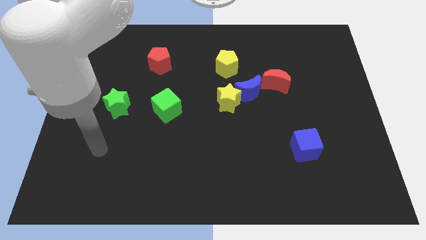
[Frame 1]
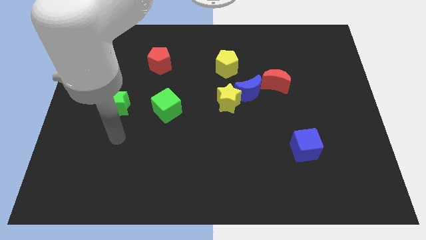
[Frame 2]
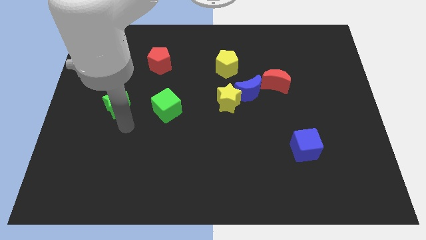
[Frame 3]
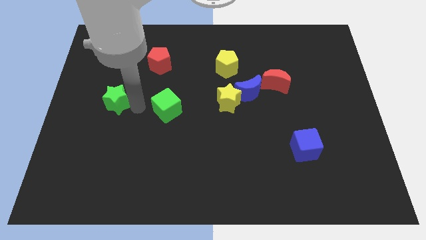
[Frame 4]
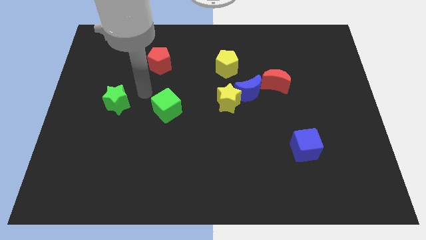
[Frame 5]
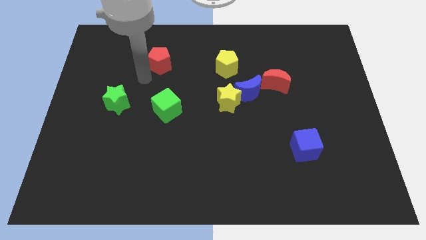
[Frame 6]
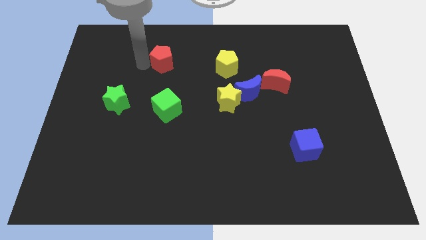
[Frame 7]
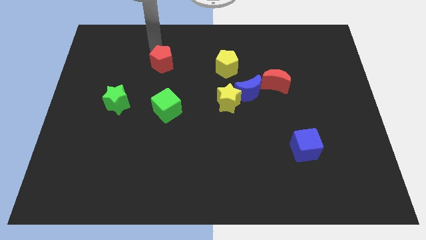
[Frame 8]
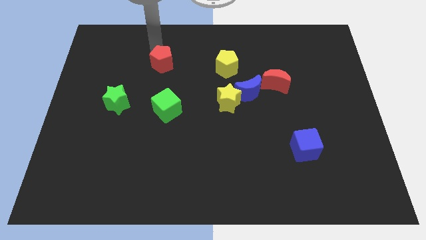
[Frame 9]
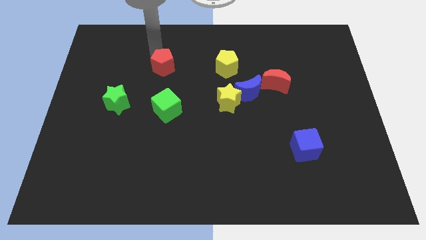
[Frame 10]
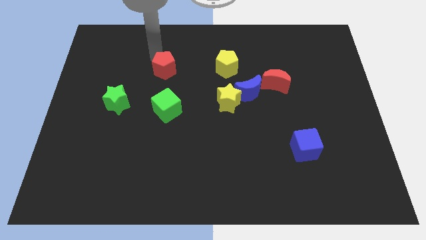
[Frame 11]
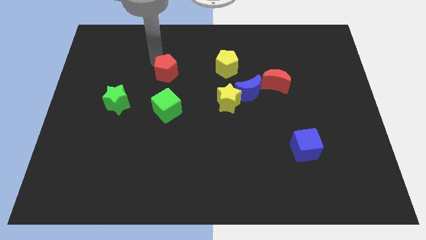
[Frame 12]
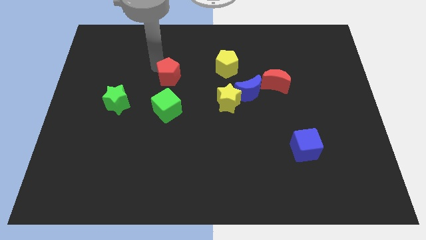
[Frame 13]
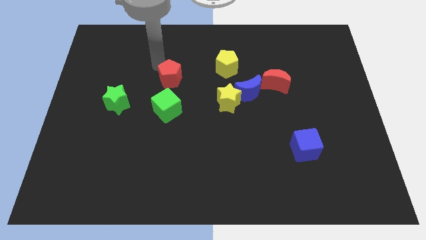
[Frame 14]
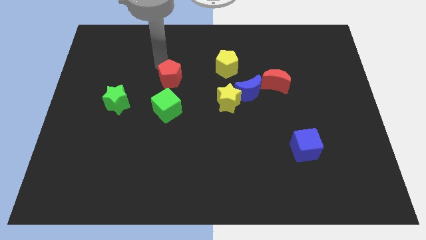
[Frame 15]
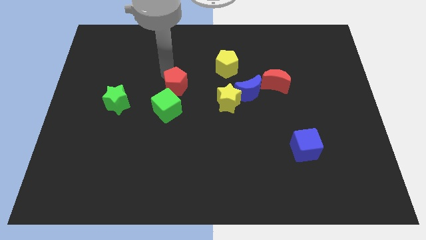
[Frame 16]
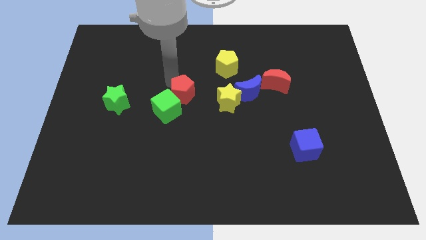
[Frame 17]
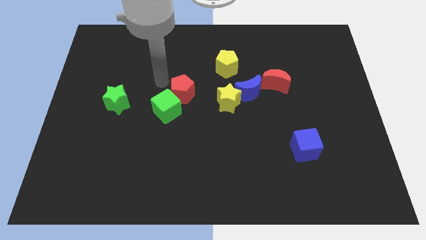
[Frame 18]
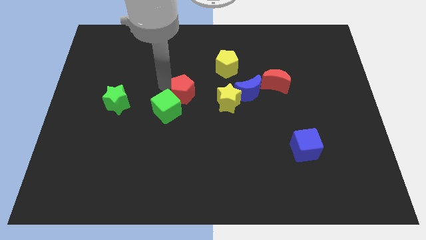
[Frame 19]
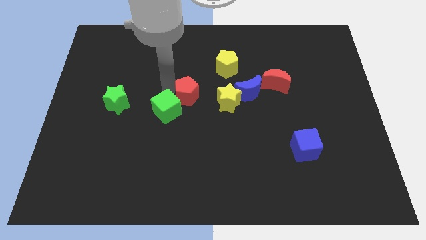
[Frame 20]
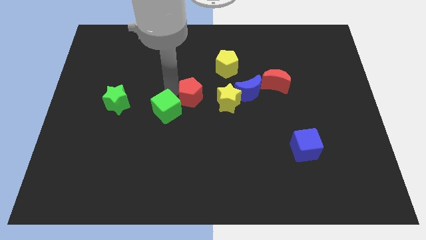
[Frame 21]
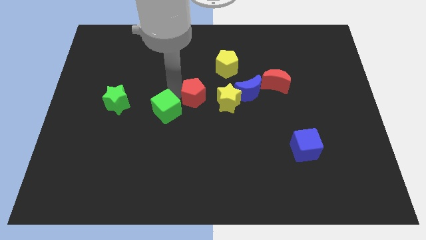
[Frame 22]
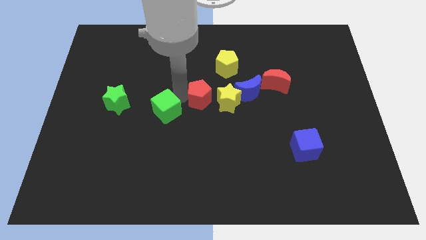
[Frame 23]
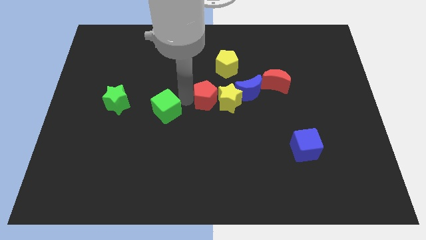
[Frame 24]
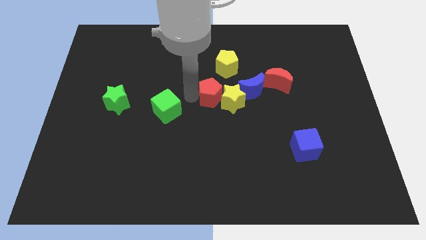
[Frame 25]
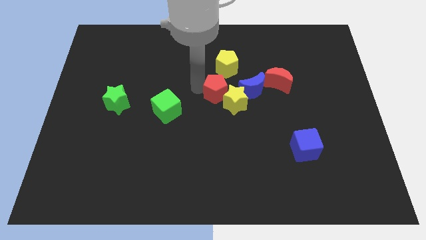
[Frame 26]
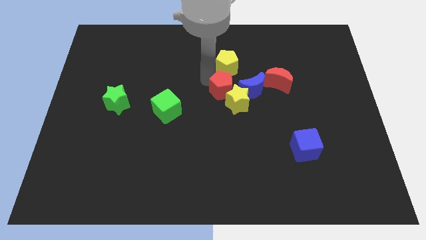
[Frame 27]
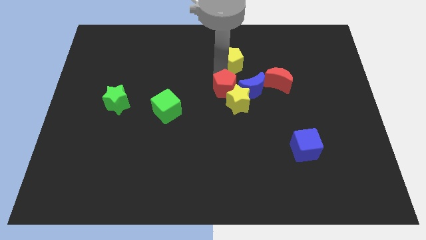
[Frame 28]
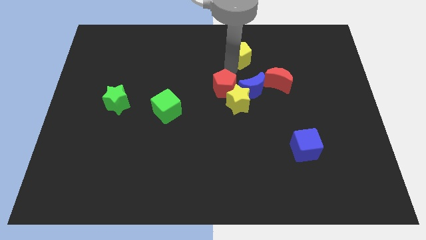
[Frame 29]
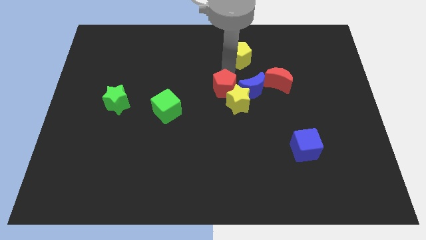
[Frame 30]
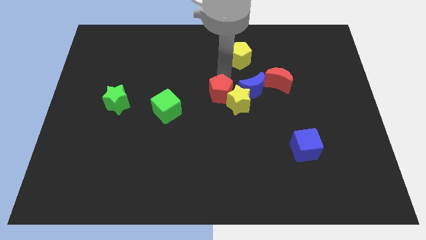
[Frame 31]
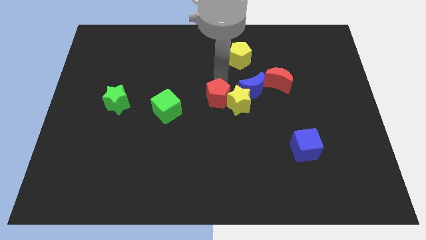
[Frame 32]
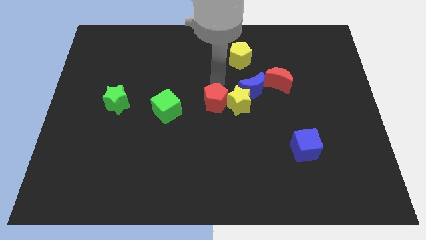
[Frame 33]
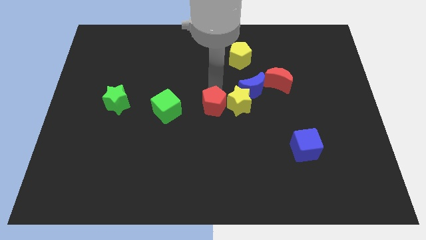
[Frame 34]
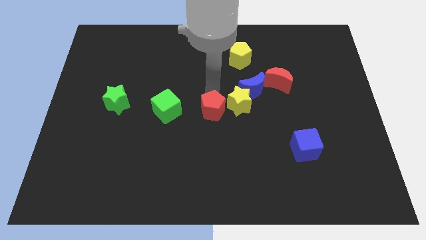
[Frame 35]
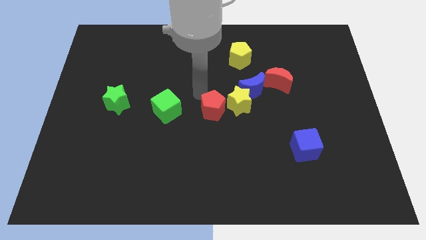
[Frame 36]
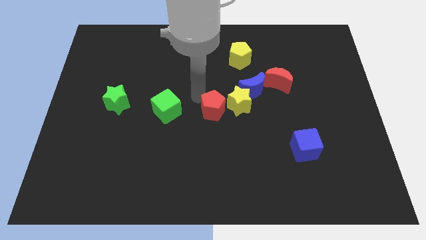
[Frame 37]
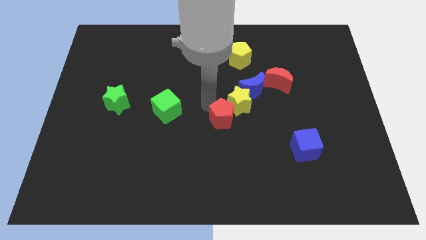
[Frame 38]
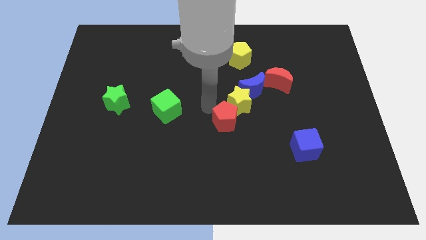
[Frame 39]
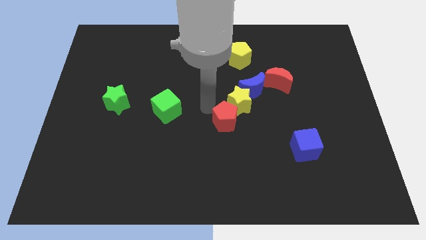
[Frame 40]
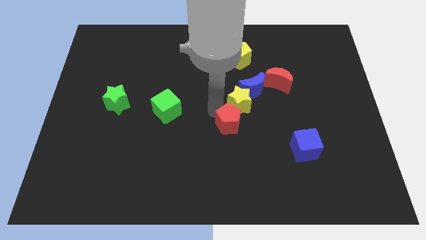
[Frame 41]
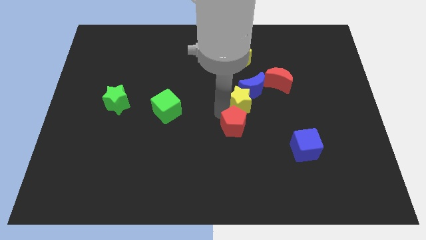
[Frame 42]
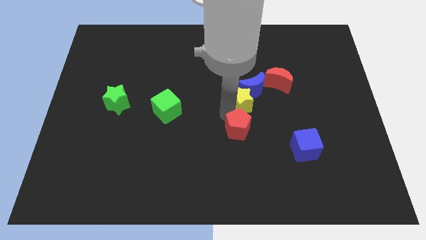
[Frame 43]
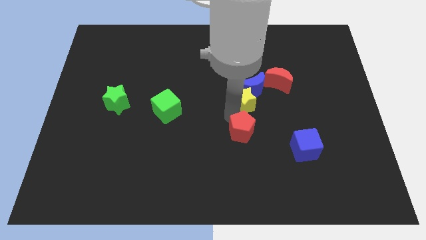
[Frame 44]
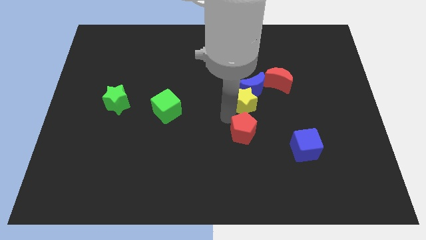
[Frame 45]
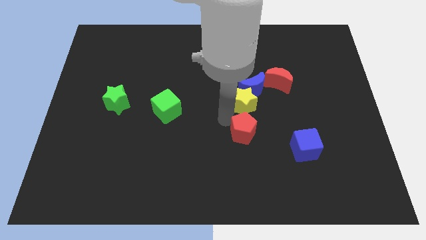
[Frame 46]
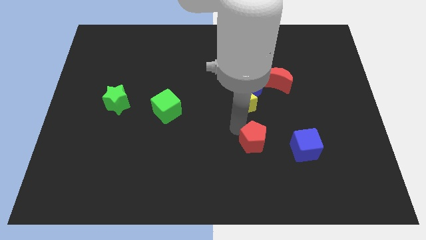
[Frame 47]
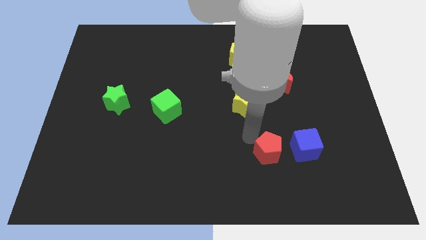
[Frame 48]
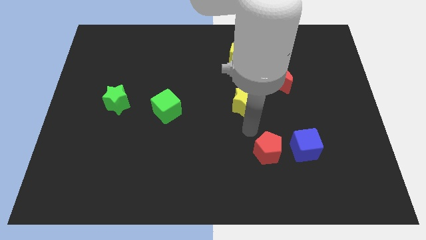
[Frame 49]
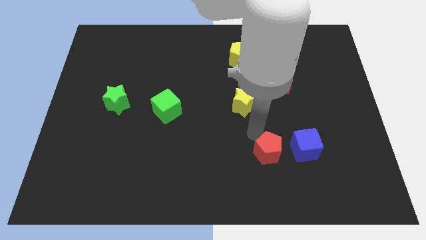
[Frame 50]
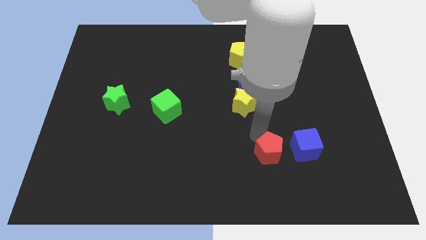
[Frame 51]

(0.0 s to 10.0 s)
put the red pentagon diagonally down and to the left of the blue cube

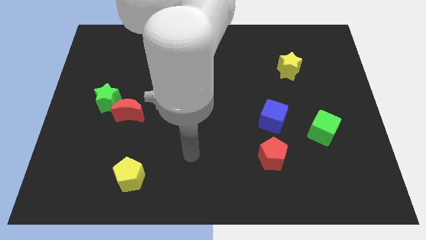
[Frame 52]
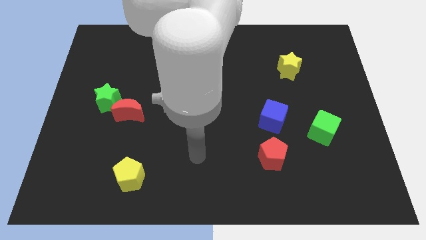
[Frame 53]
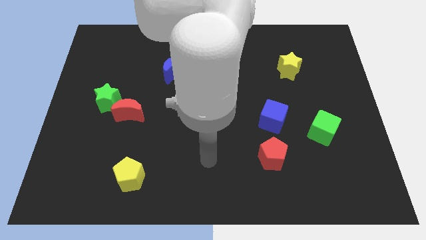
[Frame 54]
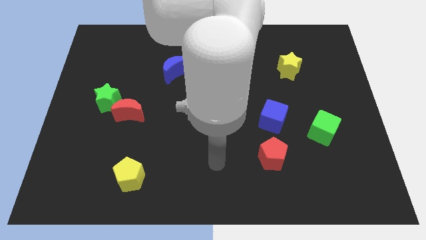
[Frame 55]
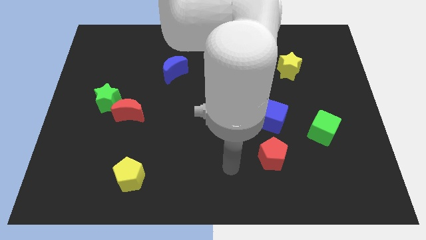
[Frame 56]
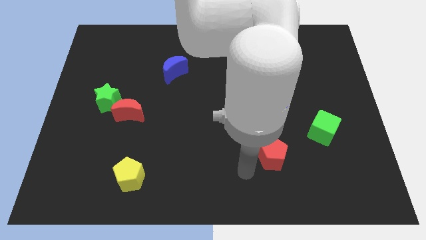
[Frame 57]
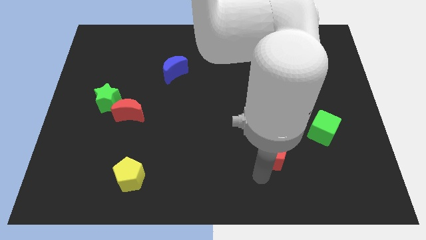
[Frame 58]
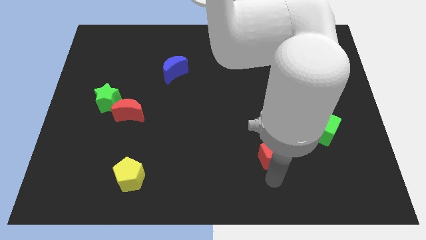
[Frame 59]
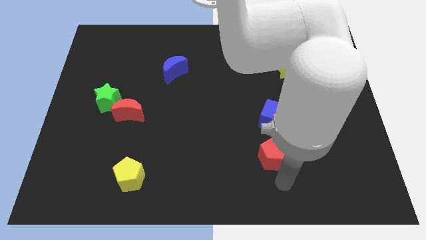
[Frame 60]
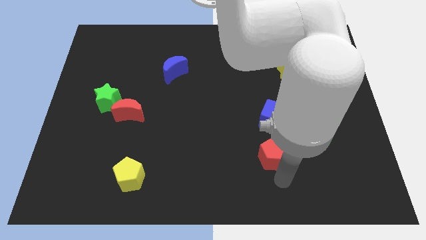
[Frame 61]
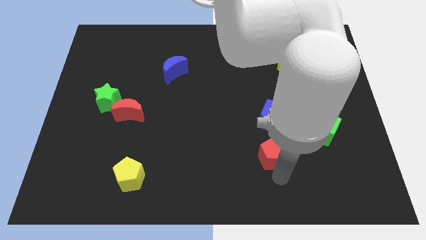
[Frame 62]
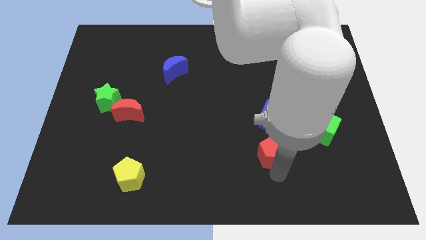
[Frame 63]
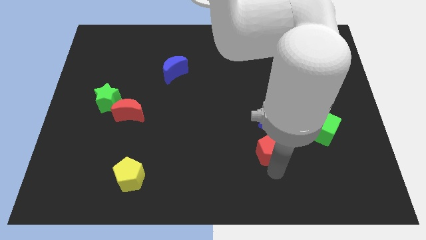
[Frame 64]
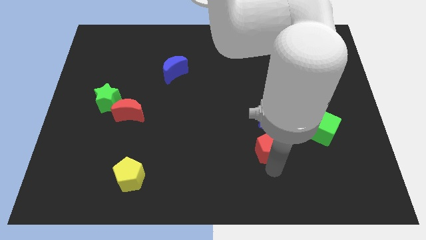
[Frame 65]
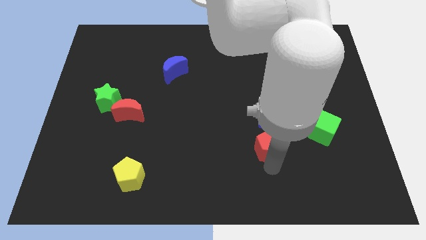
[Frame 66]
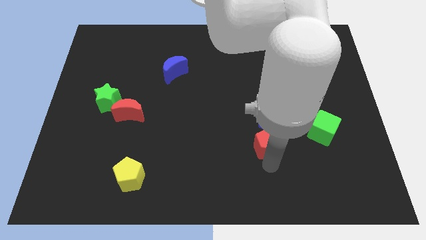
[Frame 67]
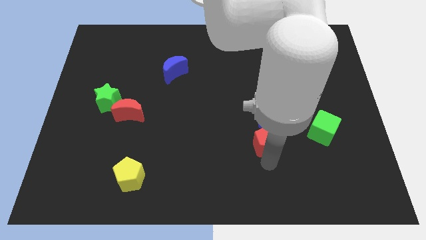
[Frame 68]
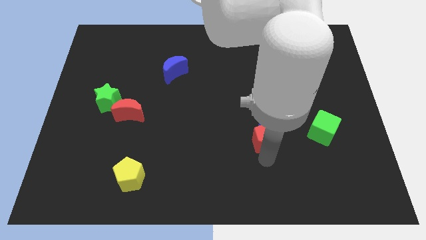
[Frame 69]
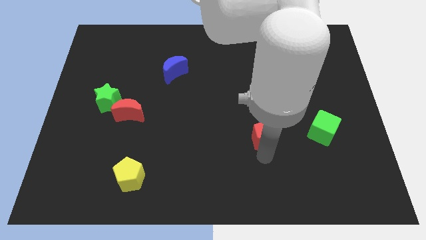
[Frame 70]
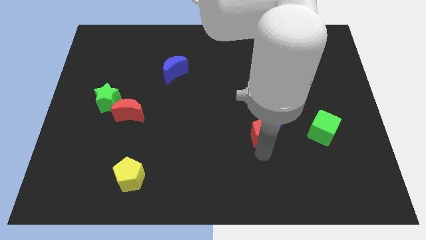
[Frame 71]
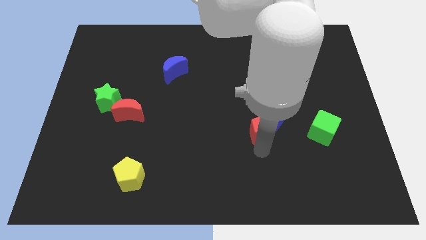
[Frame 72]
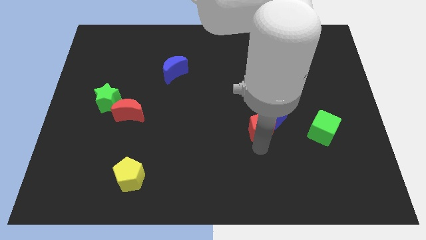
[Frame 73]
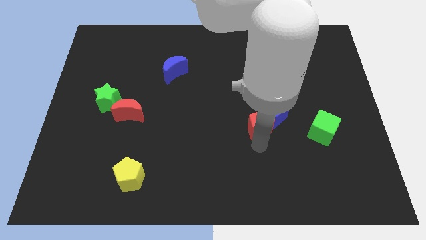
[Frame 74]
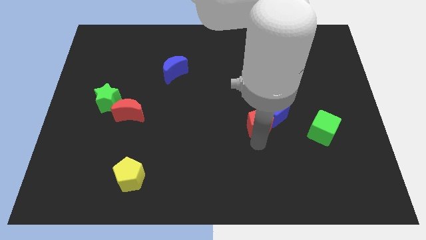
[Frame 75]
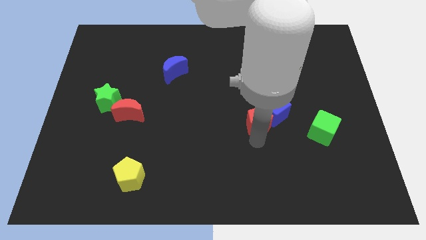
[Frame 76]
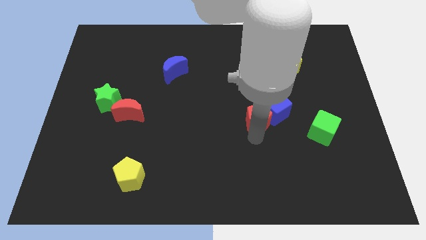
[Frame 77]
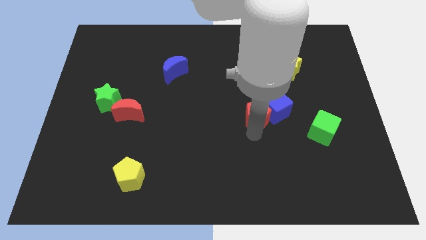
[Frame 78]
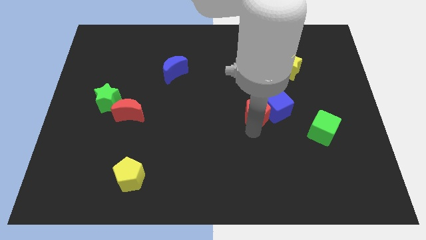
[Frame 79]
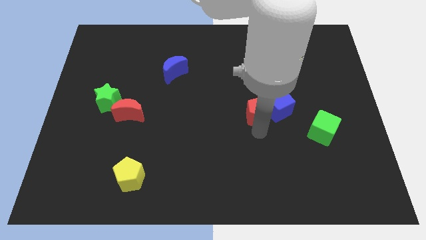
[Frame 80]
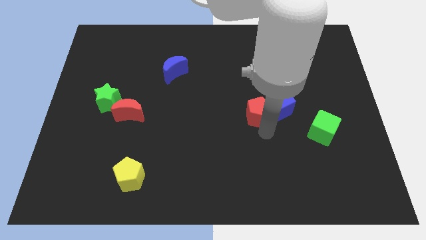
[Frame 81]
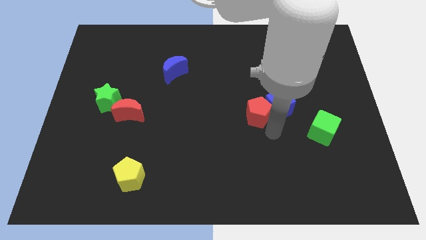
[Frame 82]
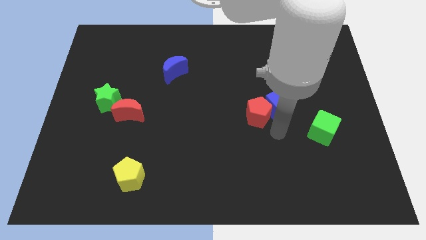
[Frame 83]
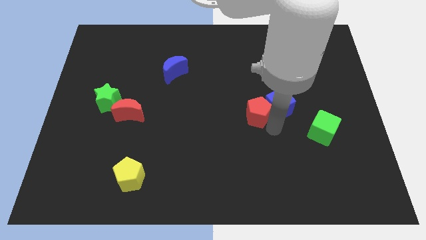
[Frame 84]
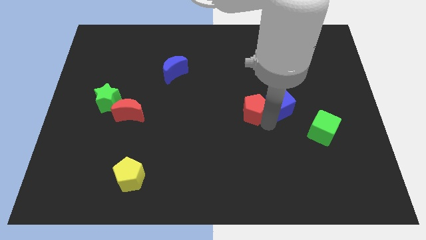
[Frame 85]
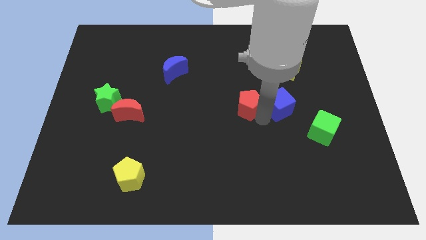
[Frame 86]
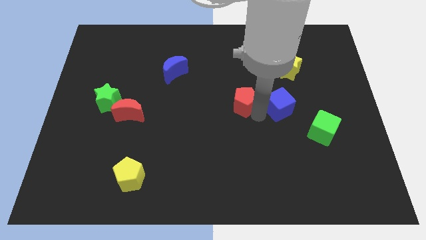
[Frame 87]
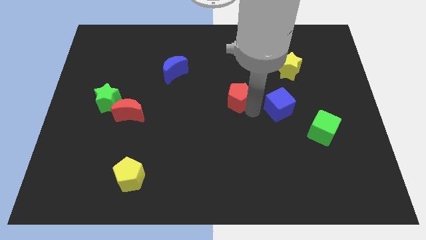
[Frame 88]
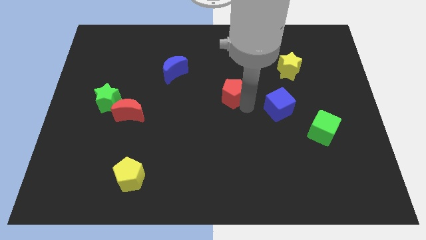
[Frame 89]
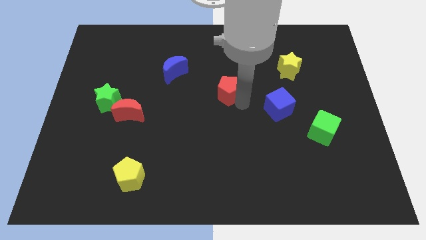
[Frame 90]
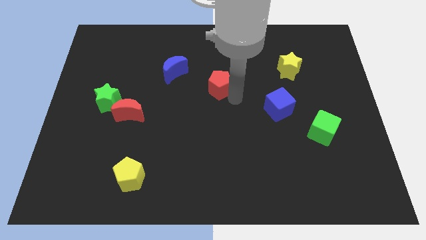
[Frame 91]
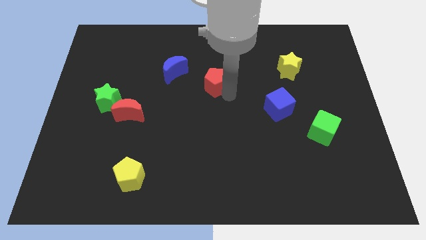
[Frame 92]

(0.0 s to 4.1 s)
slide the red pentagon to the right side of the blue moon
